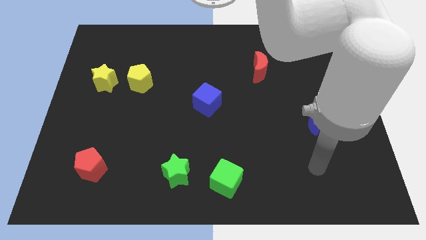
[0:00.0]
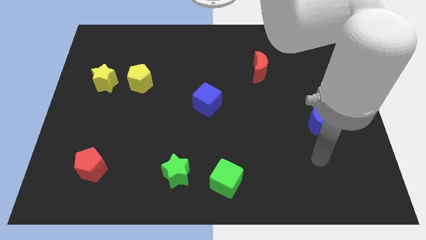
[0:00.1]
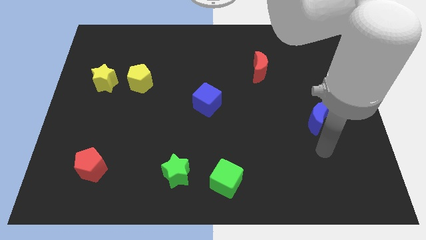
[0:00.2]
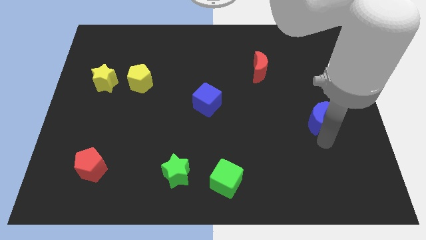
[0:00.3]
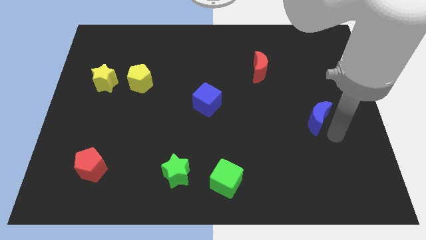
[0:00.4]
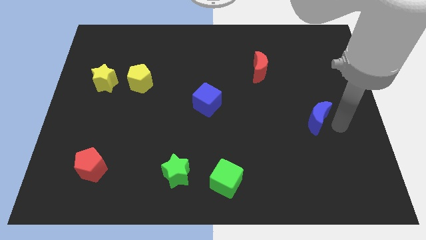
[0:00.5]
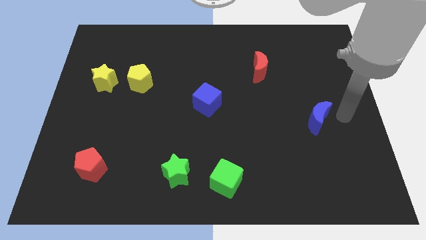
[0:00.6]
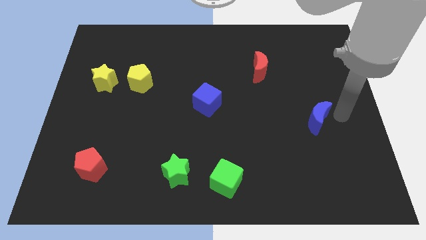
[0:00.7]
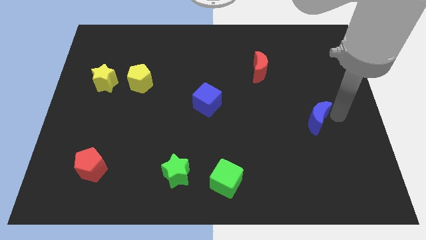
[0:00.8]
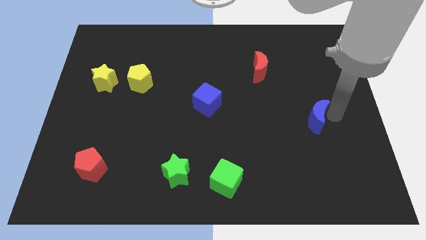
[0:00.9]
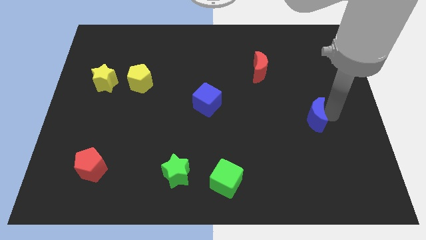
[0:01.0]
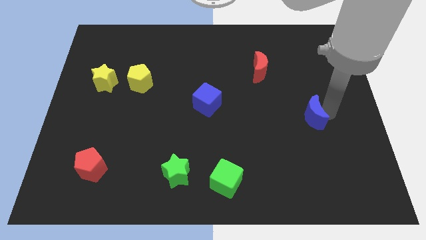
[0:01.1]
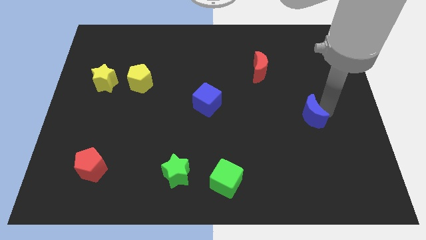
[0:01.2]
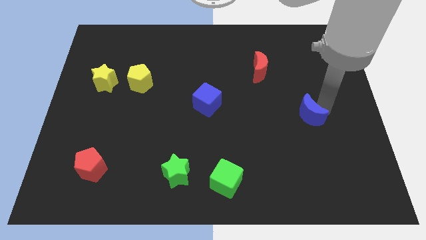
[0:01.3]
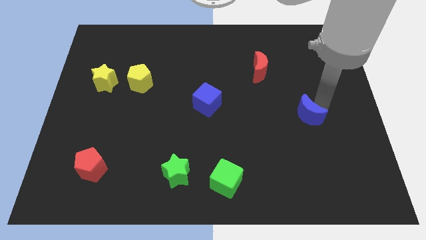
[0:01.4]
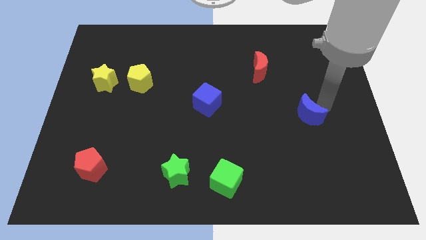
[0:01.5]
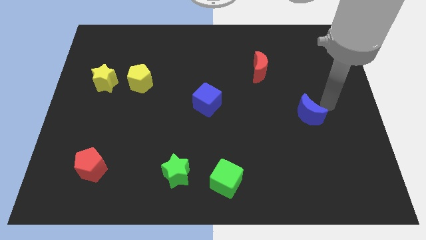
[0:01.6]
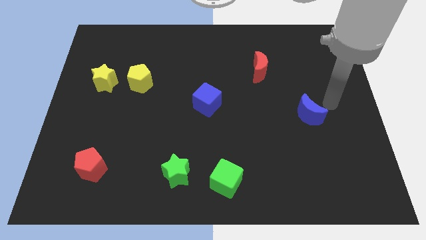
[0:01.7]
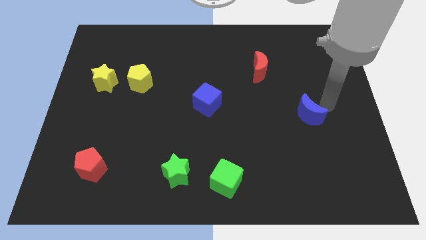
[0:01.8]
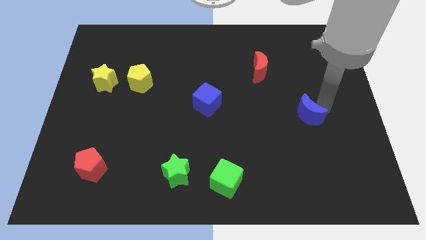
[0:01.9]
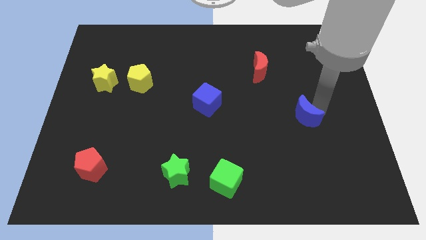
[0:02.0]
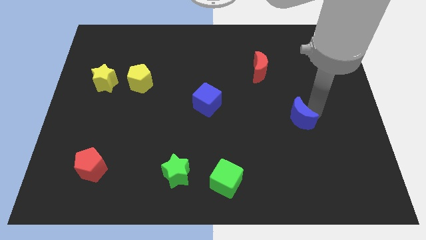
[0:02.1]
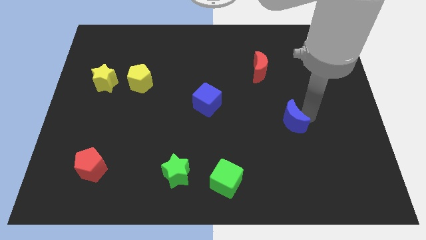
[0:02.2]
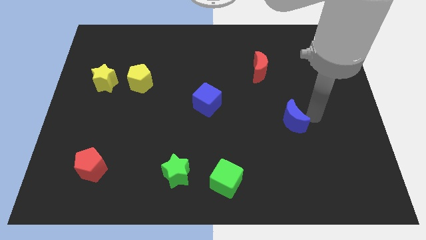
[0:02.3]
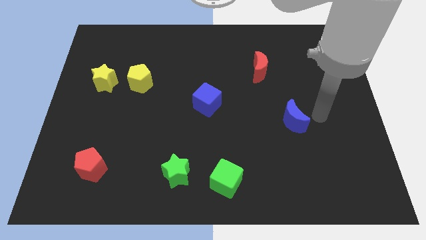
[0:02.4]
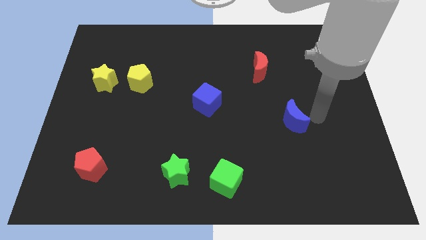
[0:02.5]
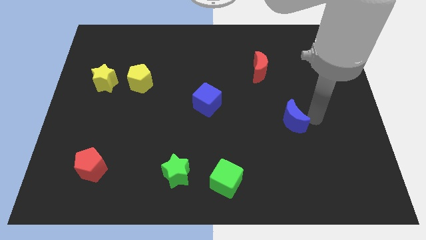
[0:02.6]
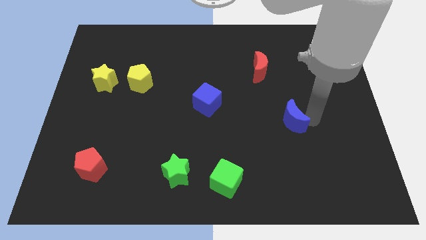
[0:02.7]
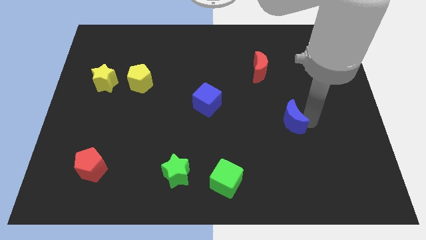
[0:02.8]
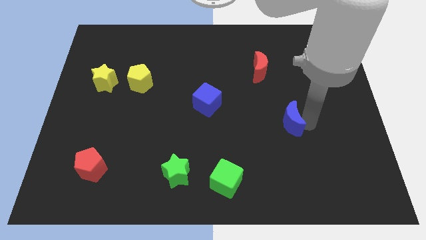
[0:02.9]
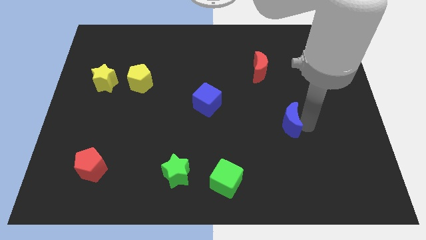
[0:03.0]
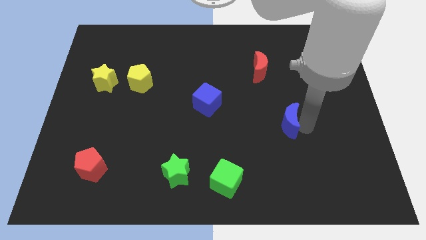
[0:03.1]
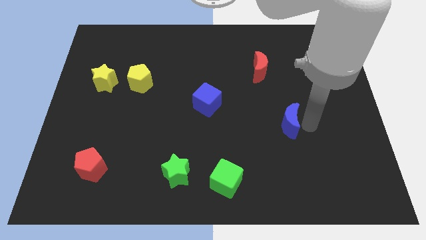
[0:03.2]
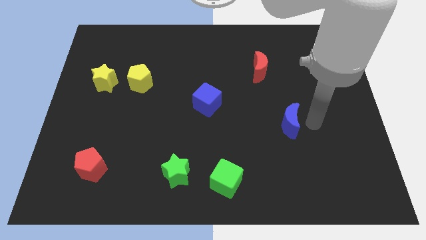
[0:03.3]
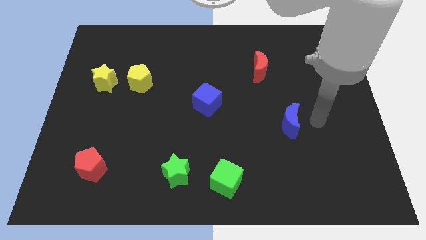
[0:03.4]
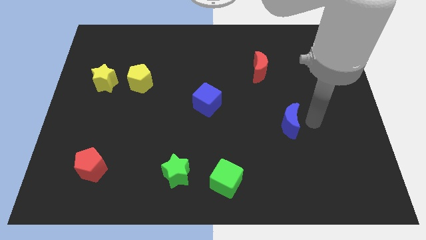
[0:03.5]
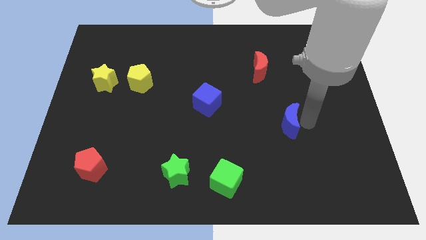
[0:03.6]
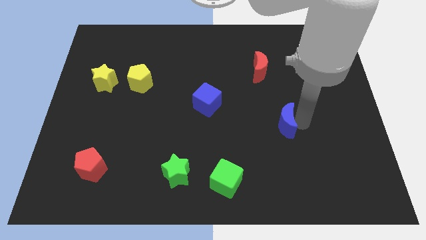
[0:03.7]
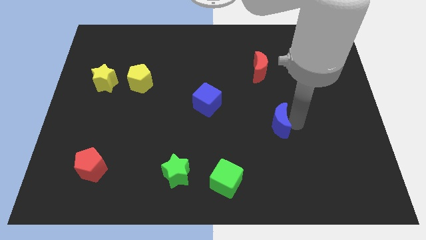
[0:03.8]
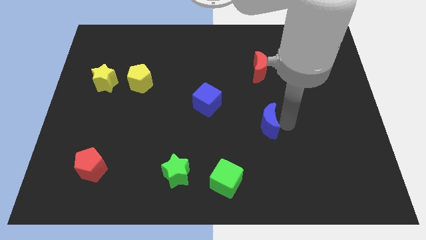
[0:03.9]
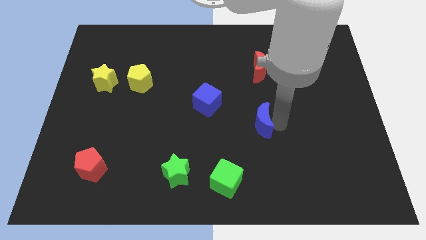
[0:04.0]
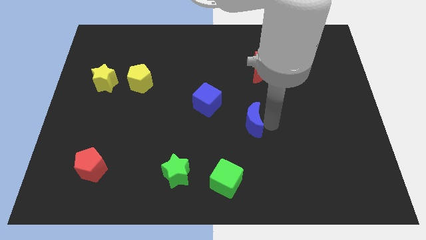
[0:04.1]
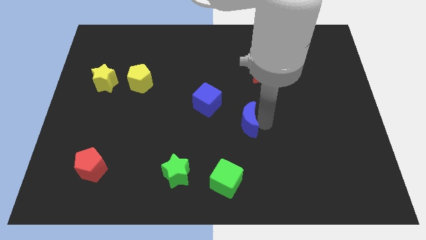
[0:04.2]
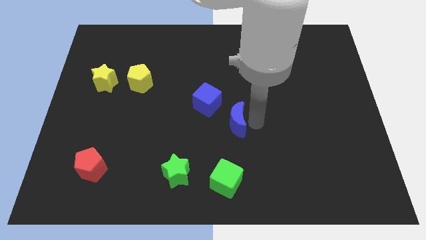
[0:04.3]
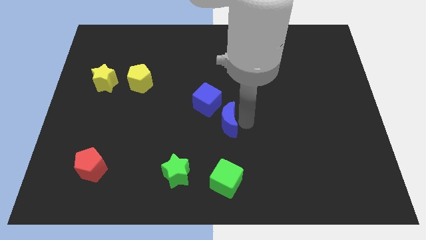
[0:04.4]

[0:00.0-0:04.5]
move the blue moon left

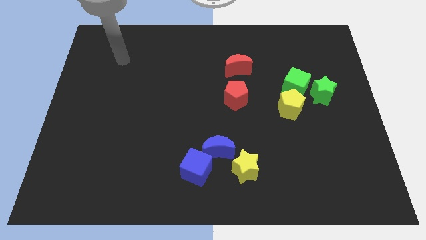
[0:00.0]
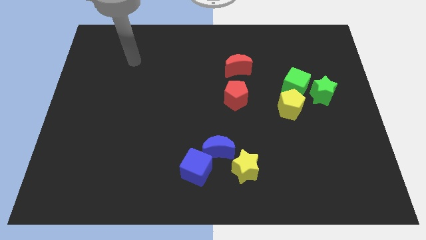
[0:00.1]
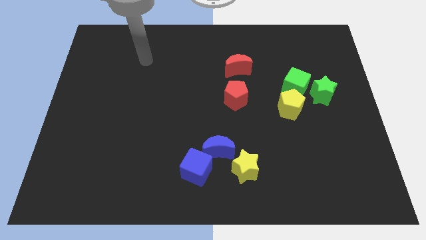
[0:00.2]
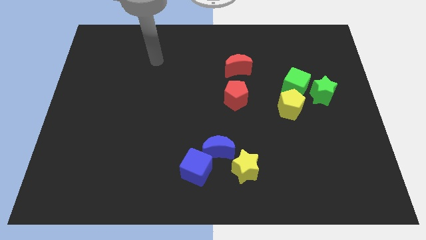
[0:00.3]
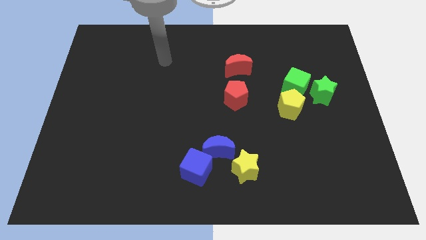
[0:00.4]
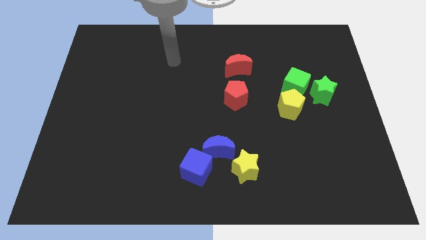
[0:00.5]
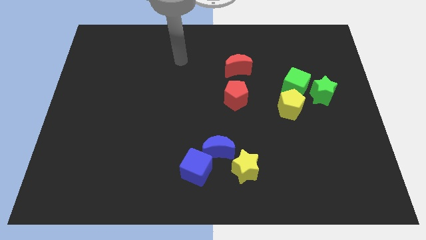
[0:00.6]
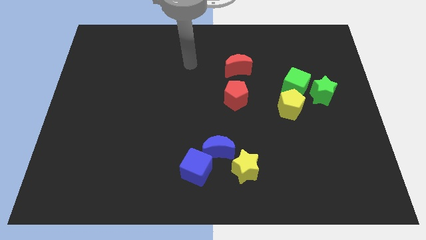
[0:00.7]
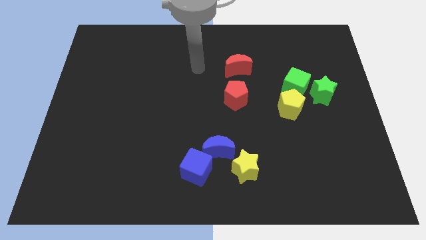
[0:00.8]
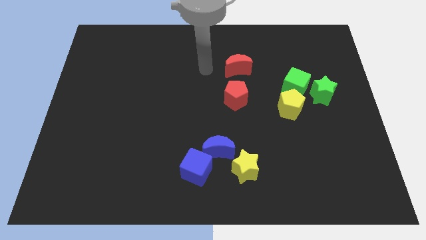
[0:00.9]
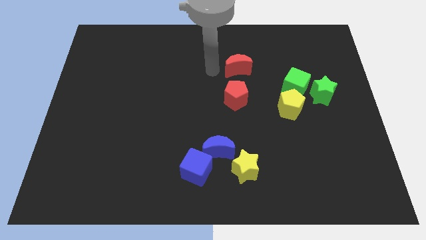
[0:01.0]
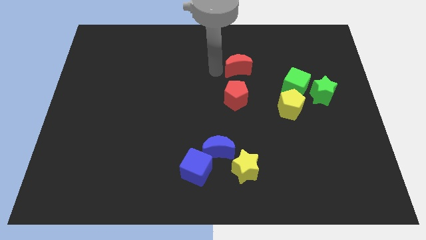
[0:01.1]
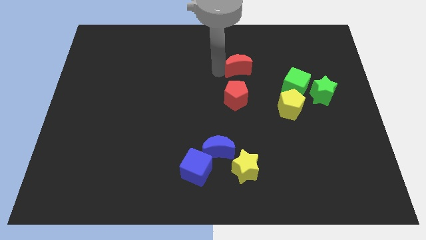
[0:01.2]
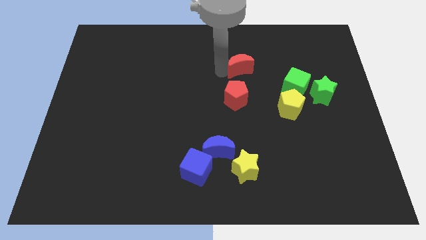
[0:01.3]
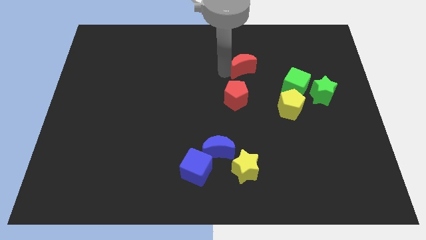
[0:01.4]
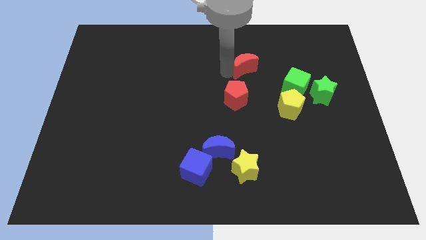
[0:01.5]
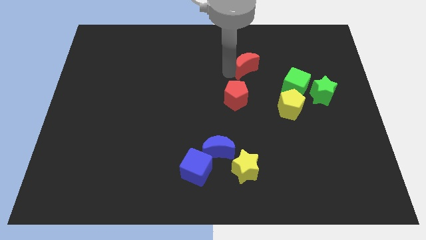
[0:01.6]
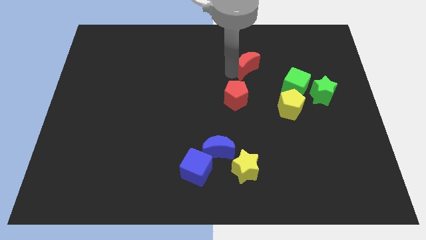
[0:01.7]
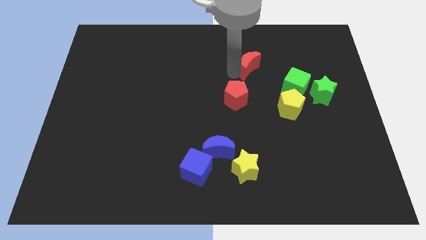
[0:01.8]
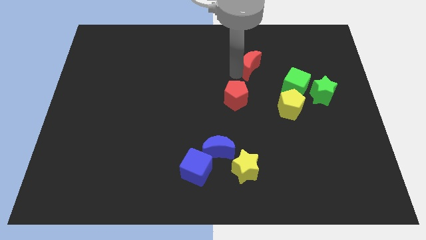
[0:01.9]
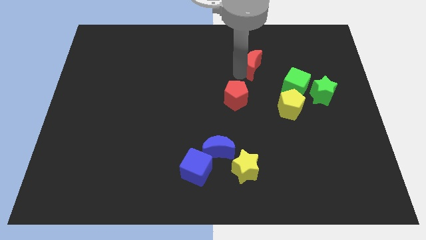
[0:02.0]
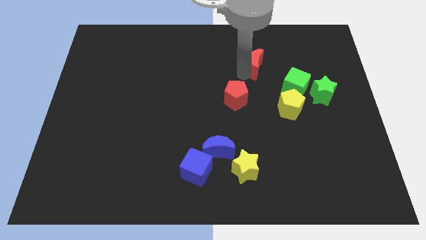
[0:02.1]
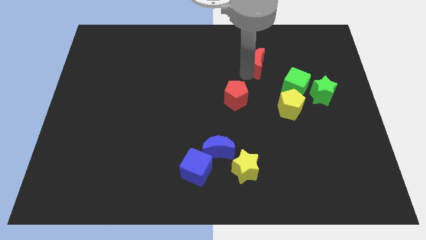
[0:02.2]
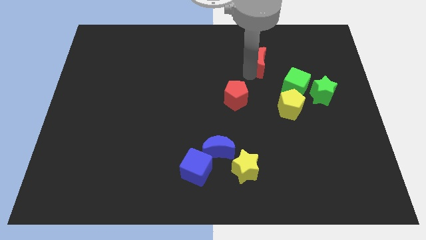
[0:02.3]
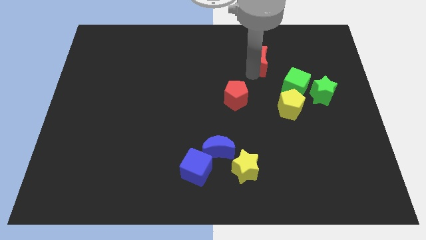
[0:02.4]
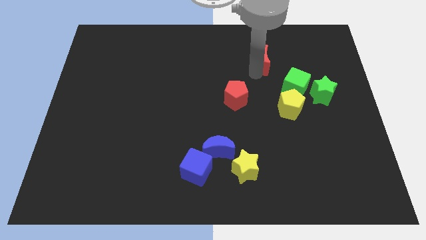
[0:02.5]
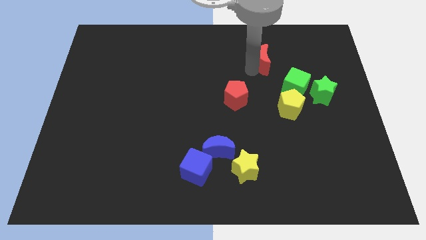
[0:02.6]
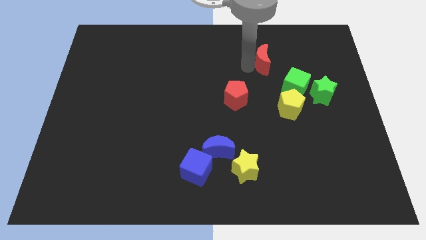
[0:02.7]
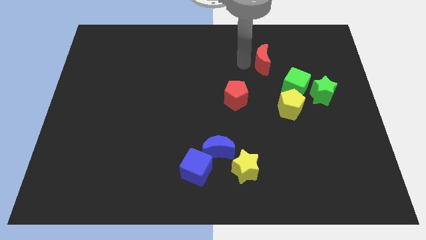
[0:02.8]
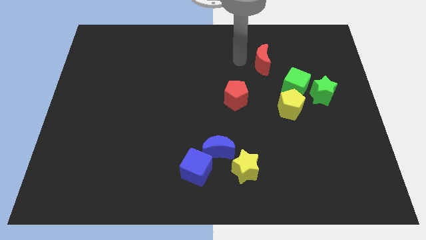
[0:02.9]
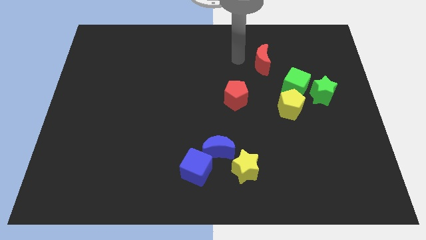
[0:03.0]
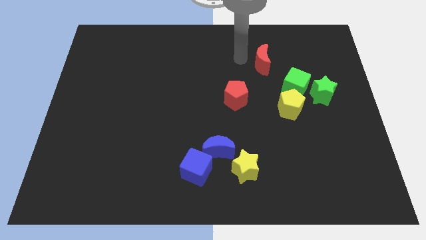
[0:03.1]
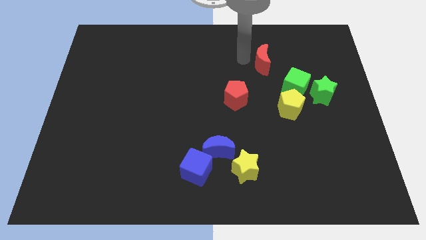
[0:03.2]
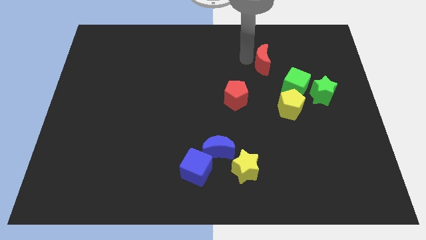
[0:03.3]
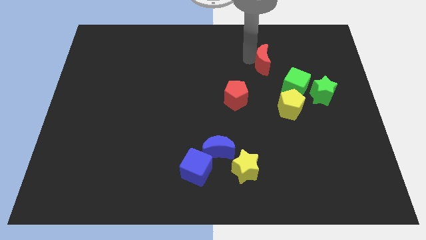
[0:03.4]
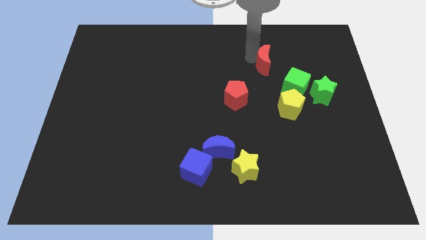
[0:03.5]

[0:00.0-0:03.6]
slide the red moon to the right slightly
